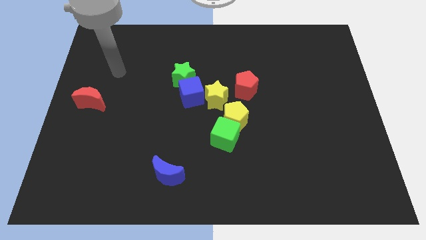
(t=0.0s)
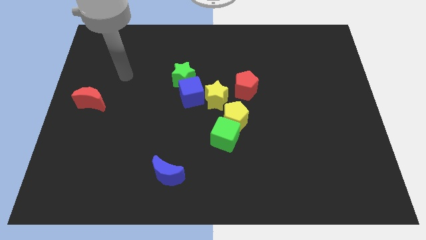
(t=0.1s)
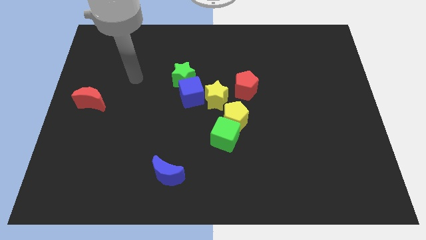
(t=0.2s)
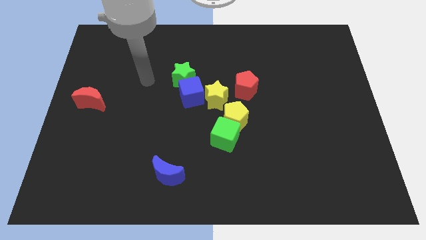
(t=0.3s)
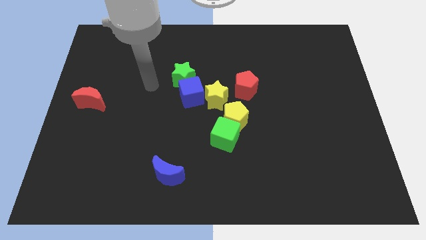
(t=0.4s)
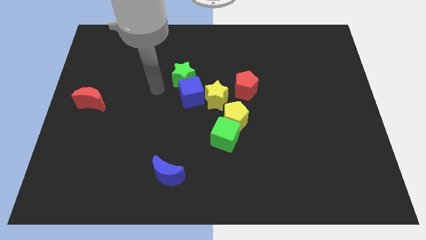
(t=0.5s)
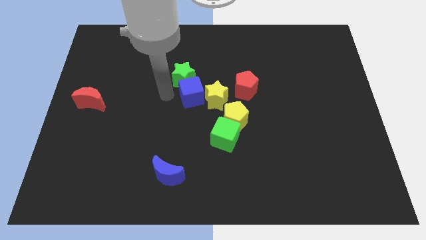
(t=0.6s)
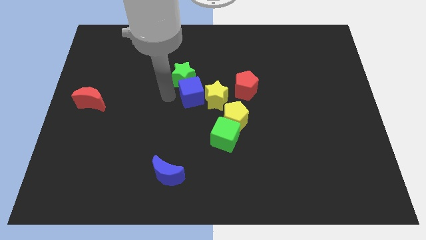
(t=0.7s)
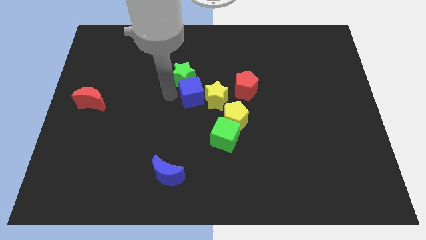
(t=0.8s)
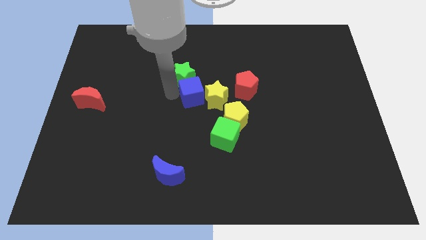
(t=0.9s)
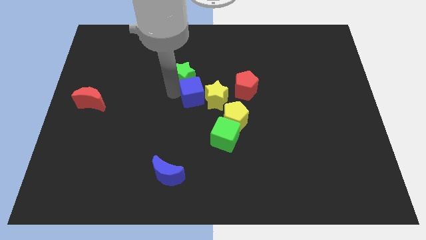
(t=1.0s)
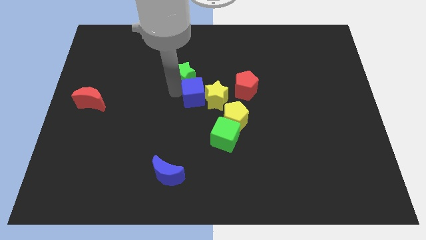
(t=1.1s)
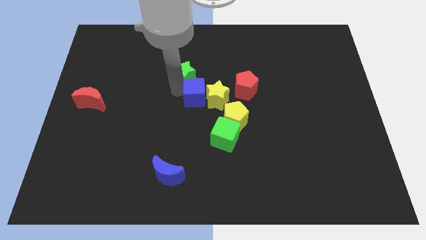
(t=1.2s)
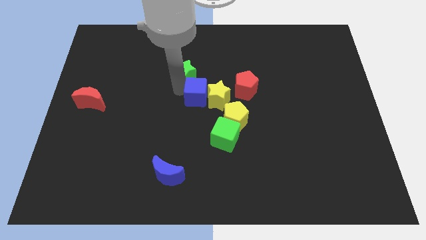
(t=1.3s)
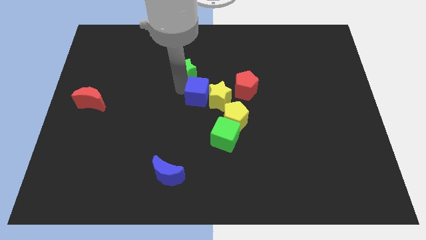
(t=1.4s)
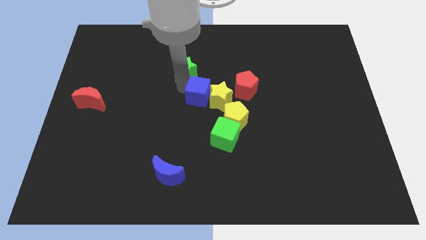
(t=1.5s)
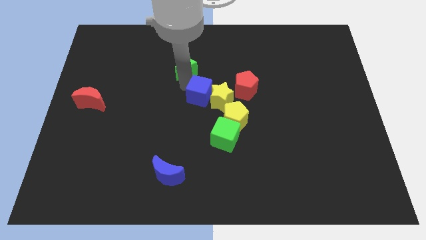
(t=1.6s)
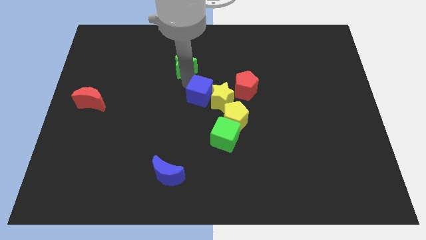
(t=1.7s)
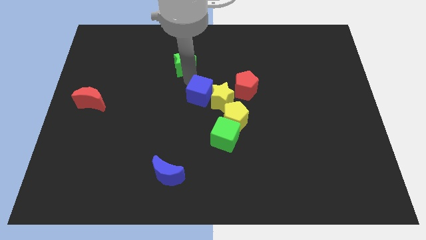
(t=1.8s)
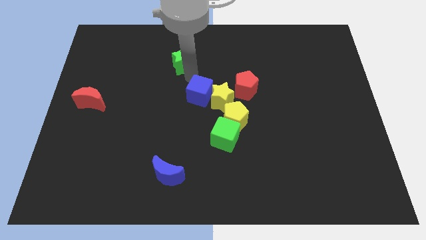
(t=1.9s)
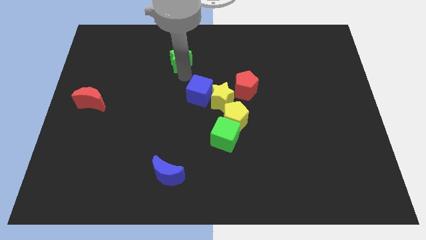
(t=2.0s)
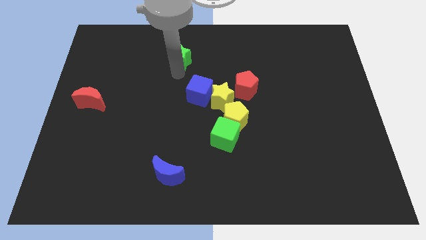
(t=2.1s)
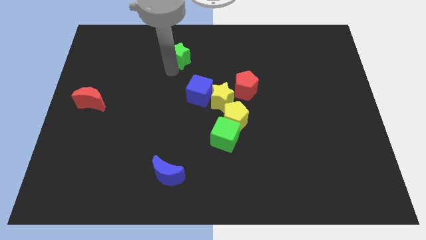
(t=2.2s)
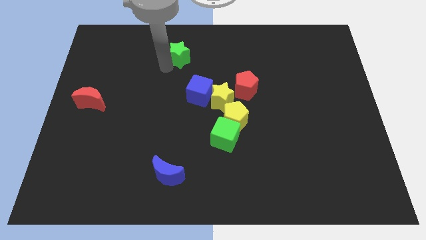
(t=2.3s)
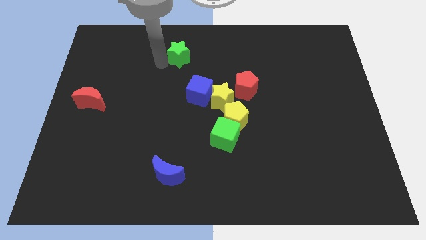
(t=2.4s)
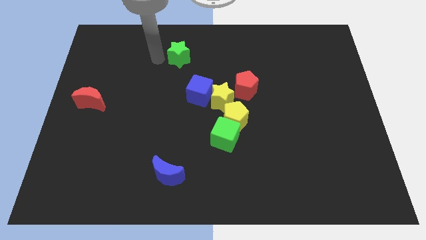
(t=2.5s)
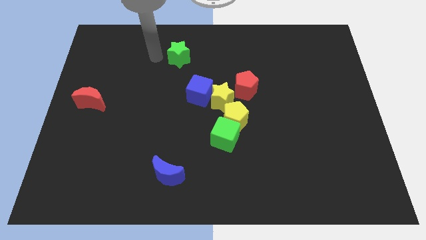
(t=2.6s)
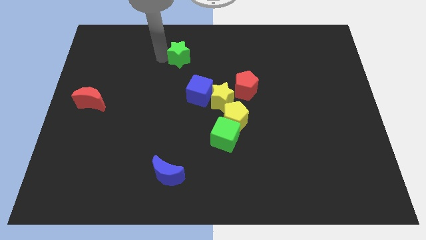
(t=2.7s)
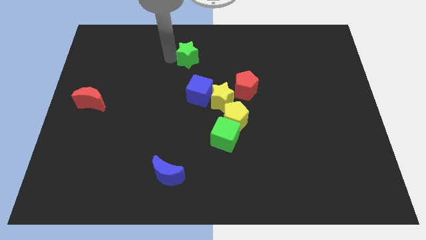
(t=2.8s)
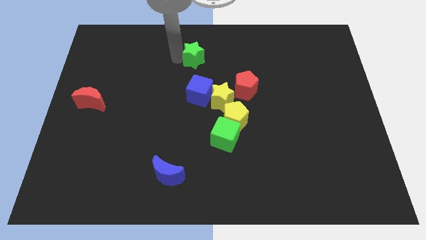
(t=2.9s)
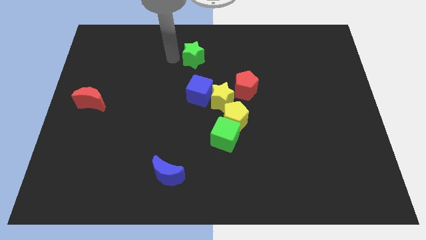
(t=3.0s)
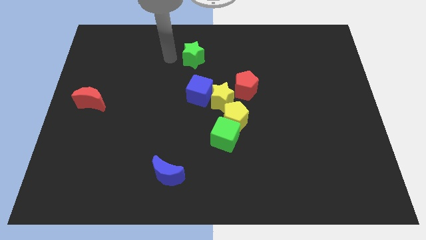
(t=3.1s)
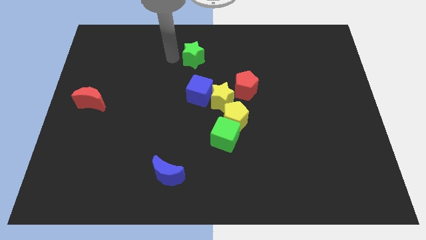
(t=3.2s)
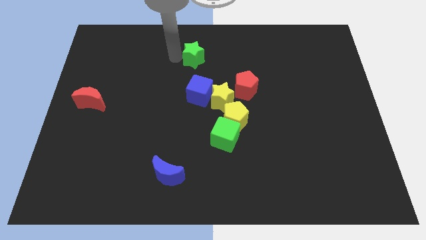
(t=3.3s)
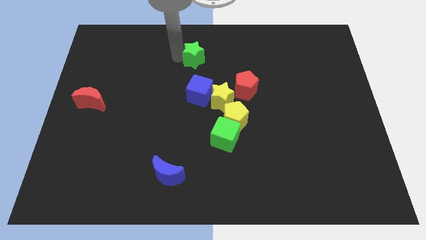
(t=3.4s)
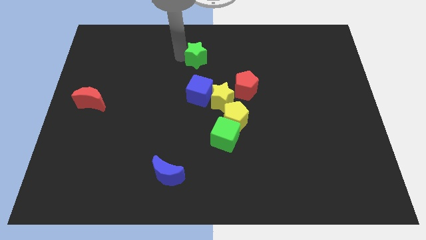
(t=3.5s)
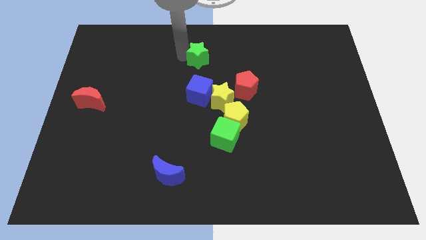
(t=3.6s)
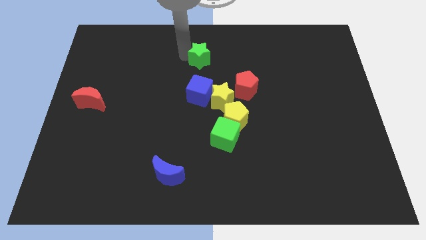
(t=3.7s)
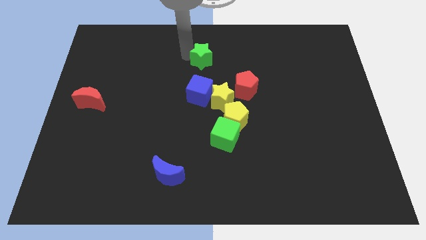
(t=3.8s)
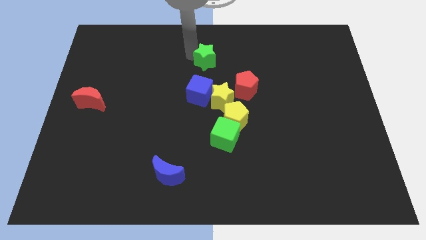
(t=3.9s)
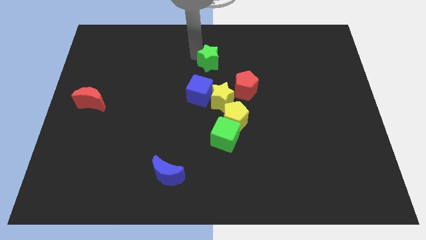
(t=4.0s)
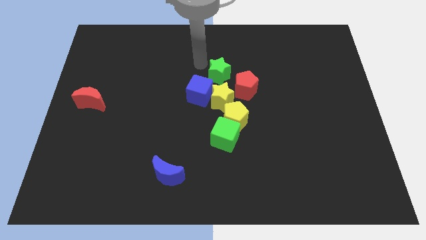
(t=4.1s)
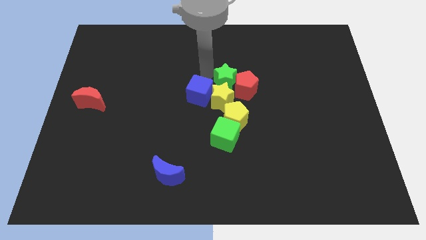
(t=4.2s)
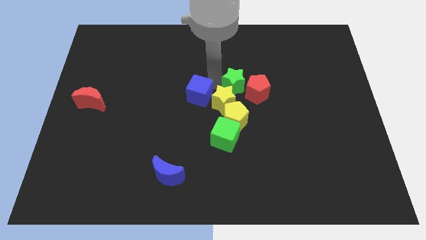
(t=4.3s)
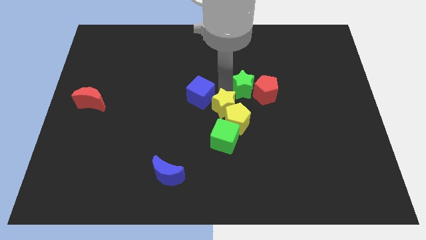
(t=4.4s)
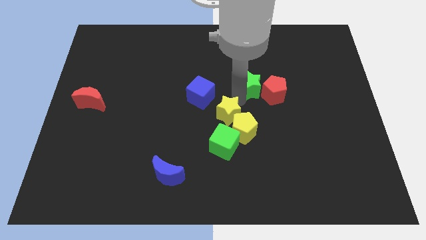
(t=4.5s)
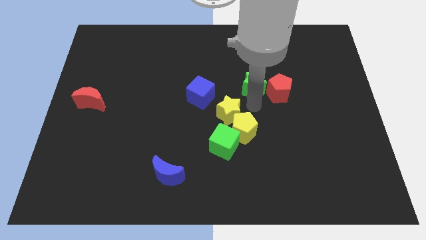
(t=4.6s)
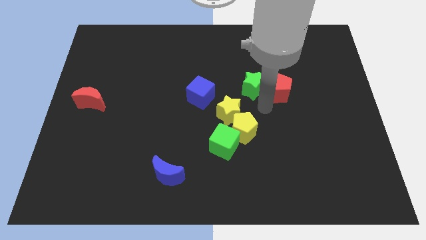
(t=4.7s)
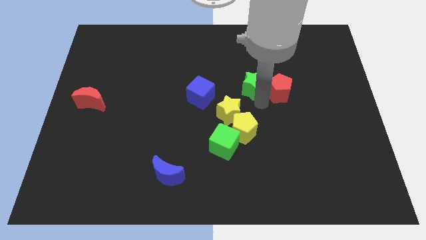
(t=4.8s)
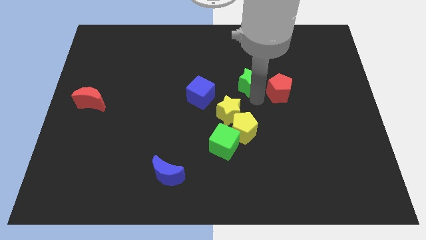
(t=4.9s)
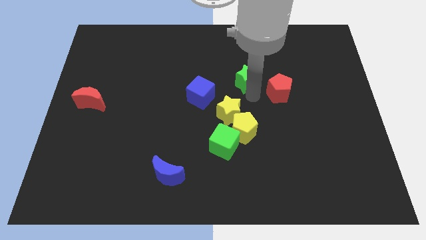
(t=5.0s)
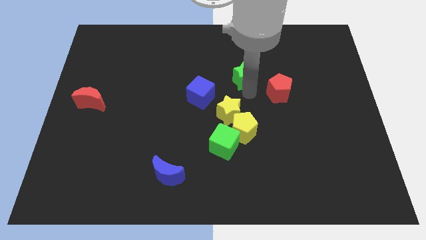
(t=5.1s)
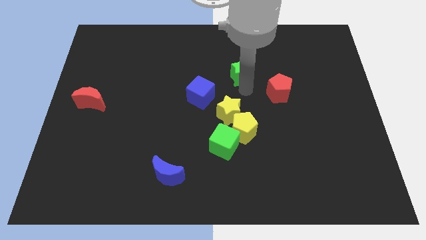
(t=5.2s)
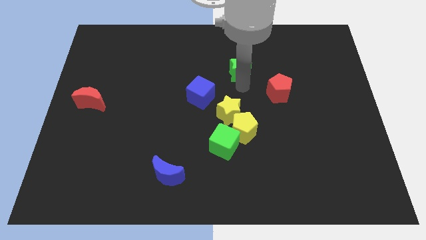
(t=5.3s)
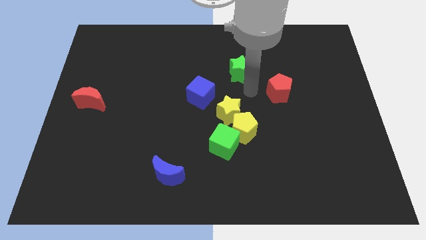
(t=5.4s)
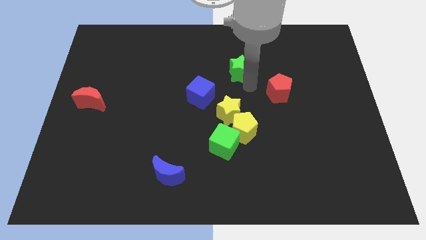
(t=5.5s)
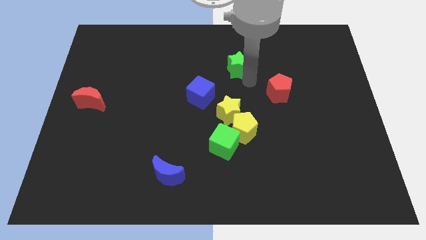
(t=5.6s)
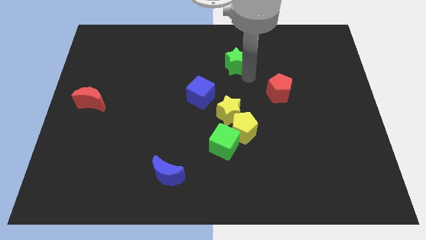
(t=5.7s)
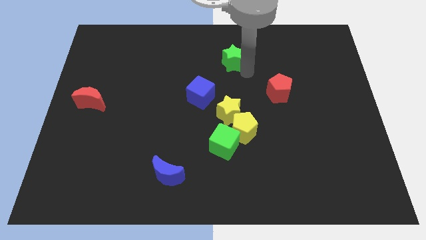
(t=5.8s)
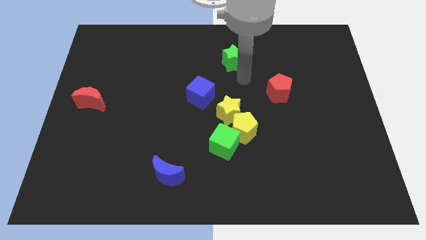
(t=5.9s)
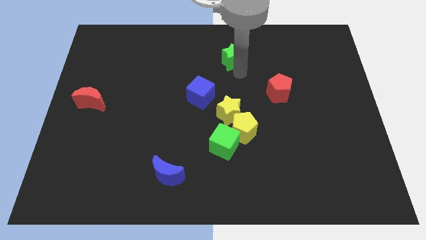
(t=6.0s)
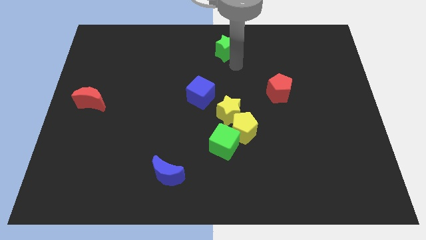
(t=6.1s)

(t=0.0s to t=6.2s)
put the green star to the top
